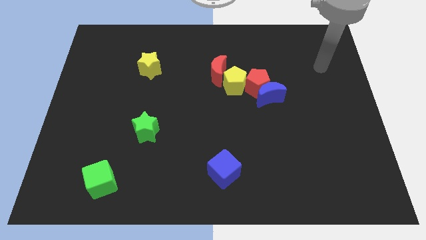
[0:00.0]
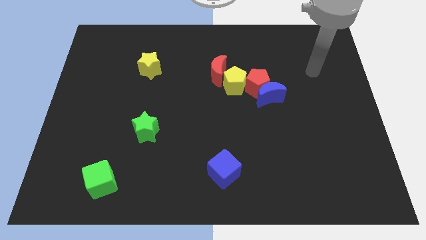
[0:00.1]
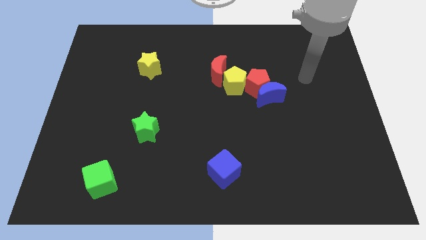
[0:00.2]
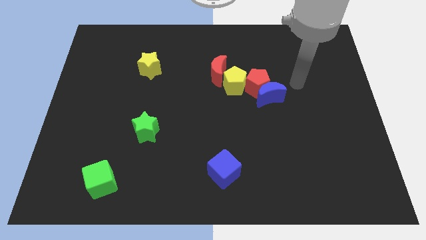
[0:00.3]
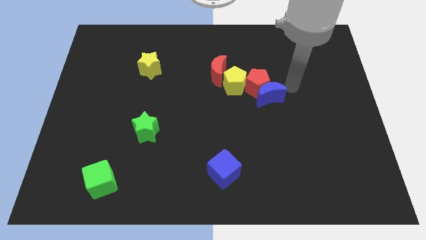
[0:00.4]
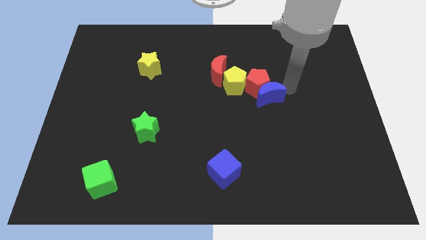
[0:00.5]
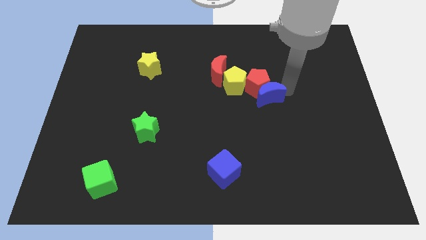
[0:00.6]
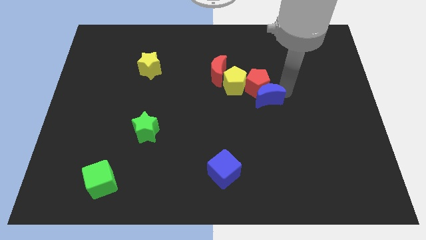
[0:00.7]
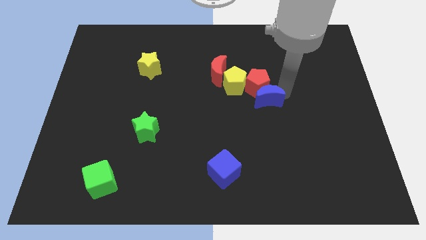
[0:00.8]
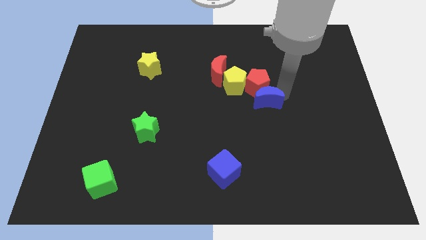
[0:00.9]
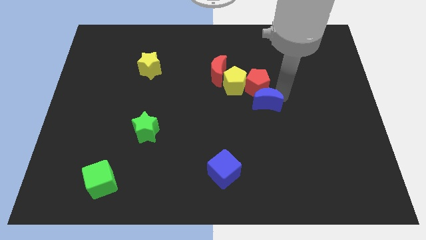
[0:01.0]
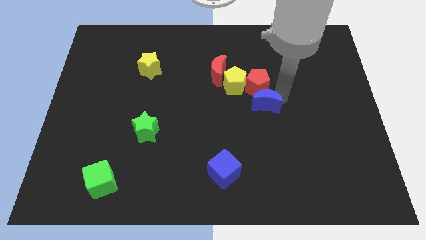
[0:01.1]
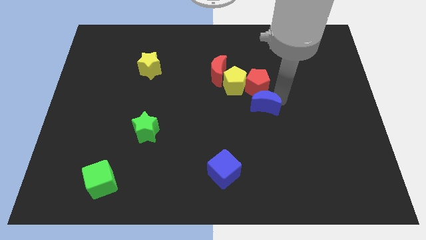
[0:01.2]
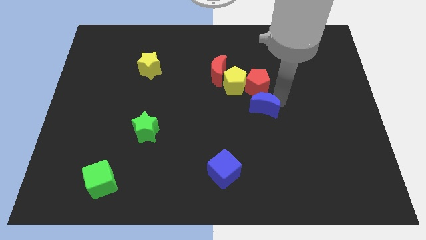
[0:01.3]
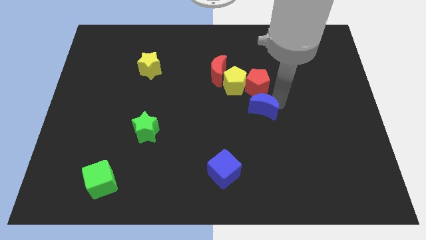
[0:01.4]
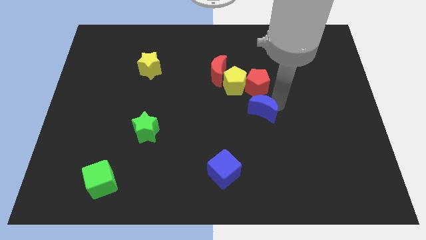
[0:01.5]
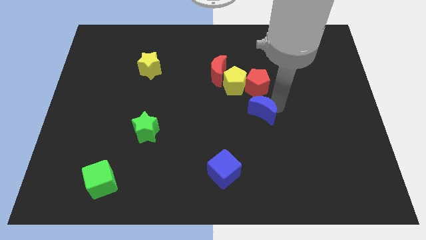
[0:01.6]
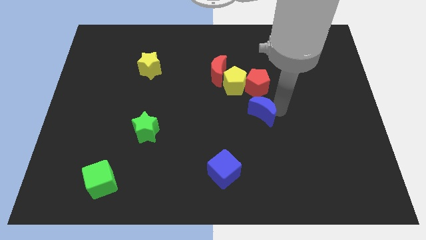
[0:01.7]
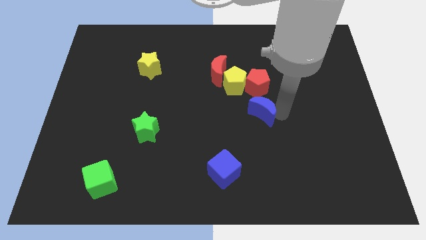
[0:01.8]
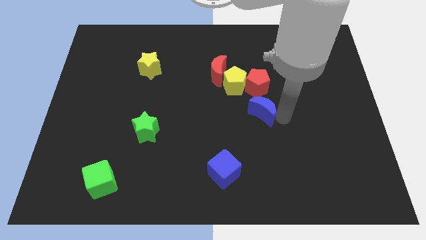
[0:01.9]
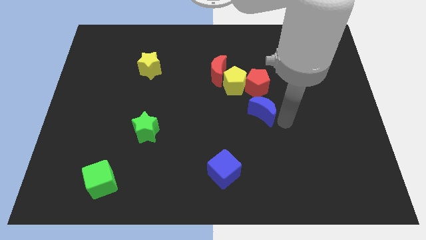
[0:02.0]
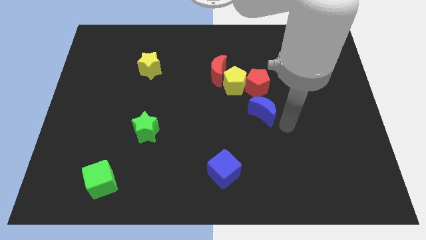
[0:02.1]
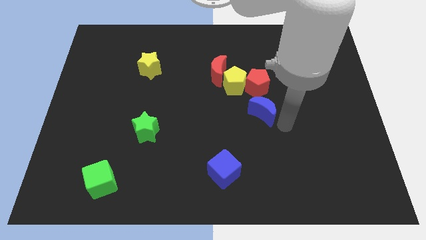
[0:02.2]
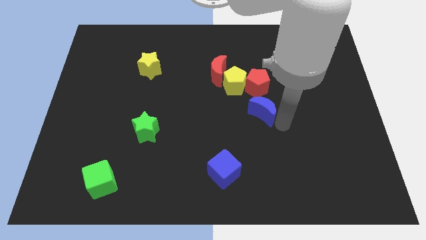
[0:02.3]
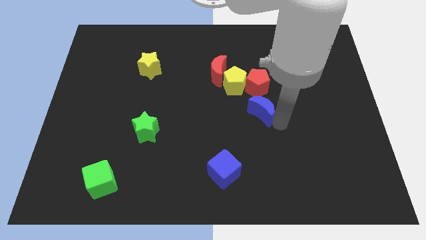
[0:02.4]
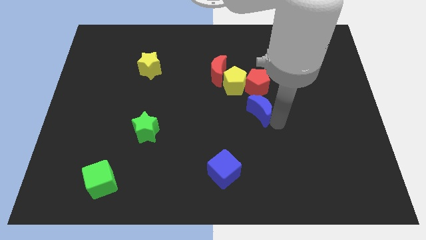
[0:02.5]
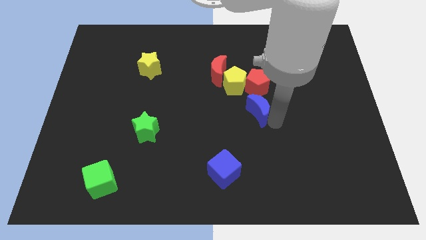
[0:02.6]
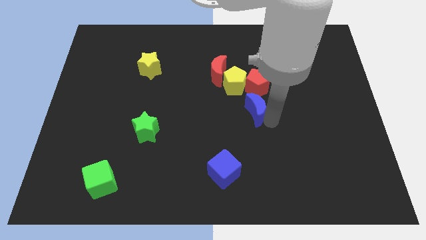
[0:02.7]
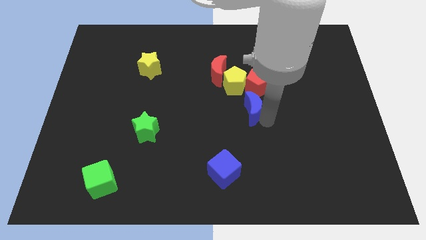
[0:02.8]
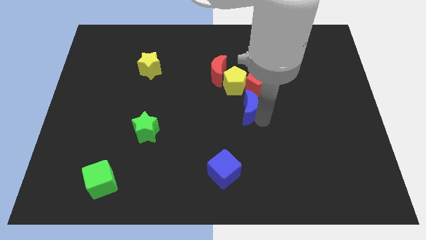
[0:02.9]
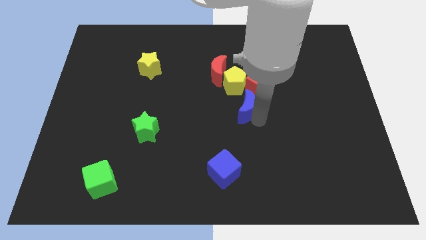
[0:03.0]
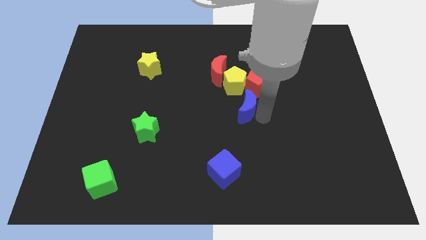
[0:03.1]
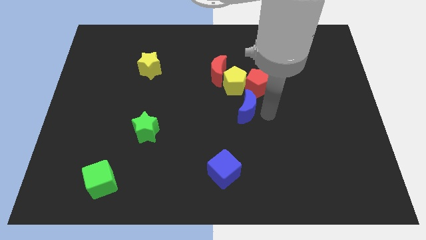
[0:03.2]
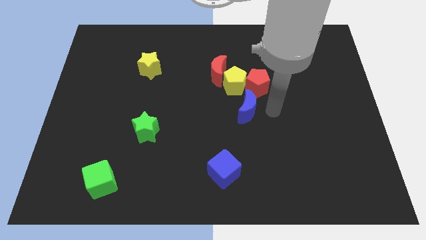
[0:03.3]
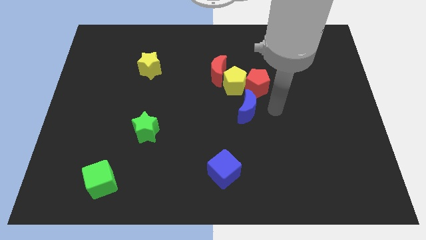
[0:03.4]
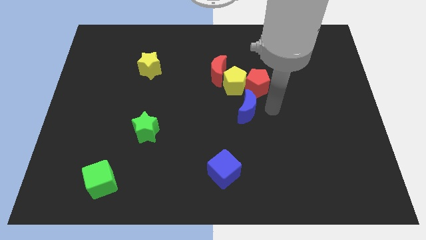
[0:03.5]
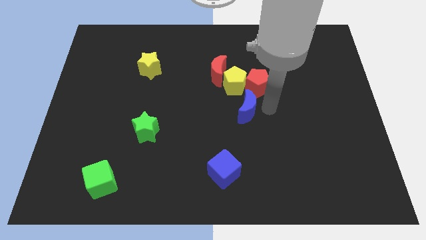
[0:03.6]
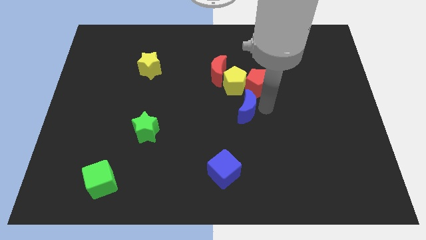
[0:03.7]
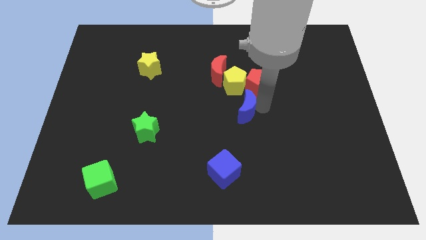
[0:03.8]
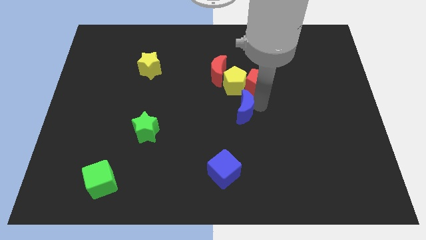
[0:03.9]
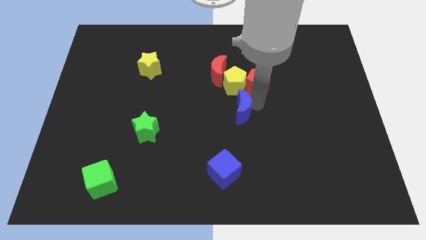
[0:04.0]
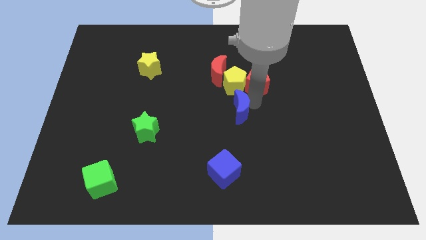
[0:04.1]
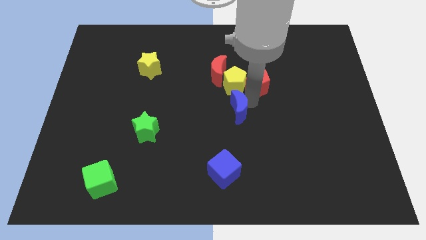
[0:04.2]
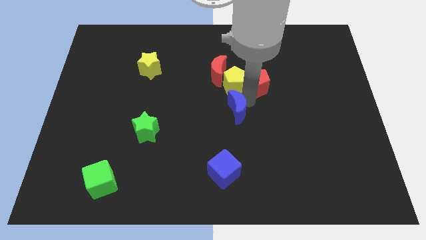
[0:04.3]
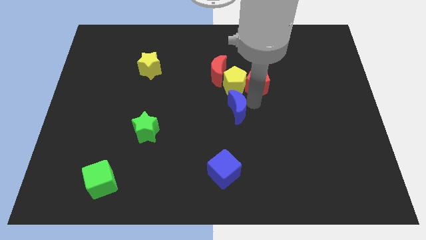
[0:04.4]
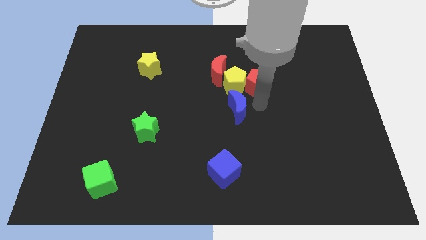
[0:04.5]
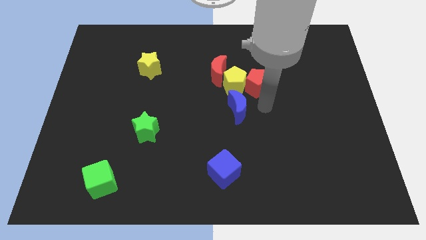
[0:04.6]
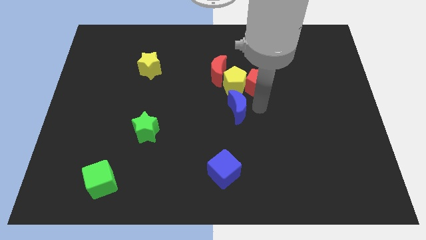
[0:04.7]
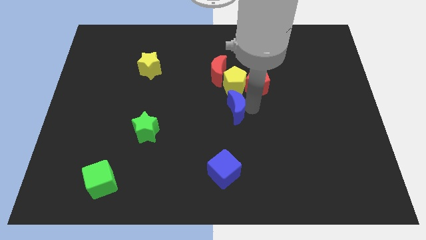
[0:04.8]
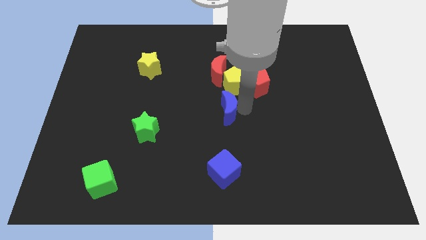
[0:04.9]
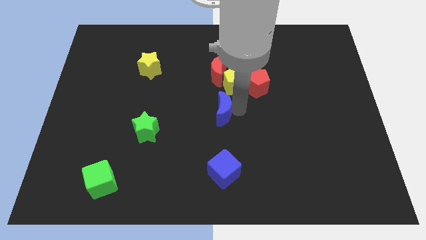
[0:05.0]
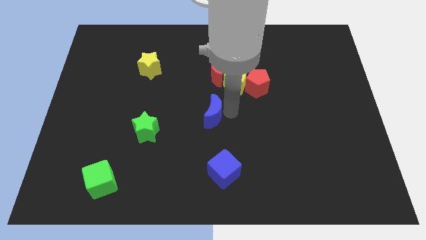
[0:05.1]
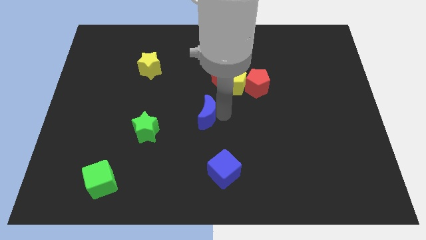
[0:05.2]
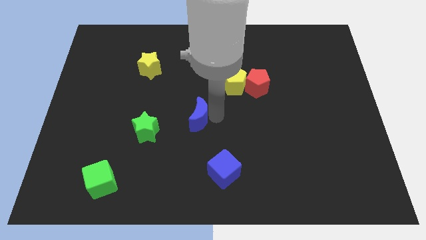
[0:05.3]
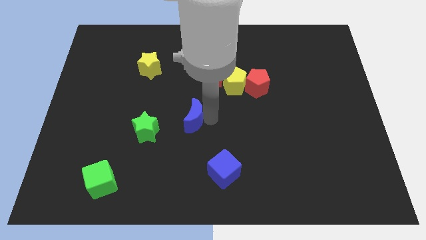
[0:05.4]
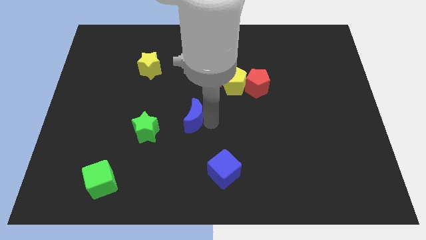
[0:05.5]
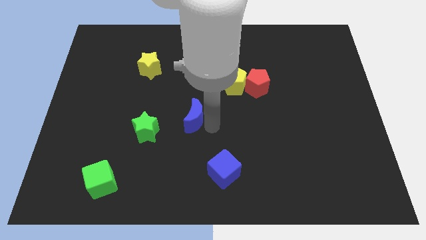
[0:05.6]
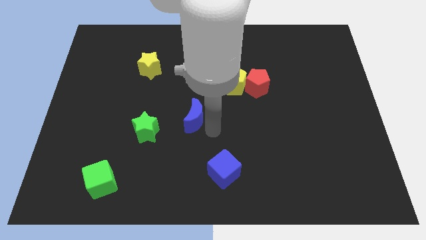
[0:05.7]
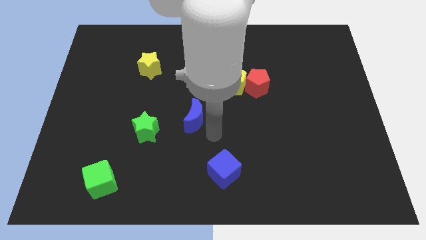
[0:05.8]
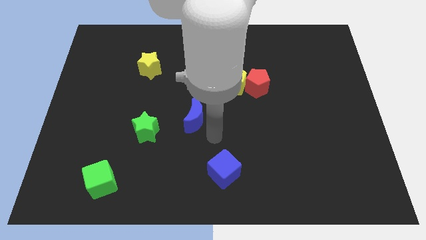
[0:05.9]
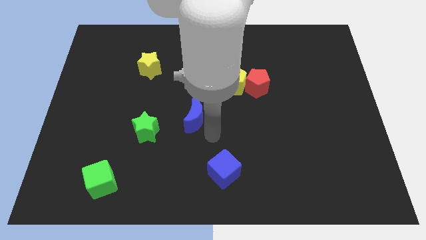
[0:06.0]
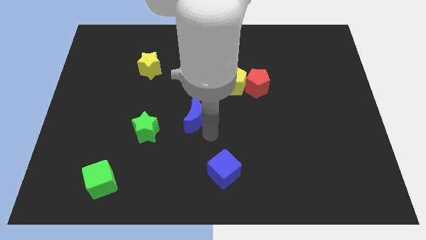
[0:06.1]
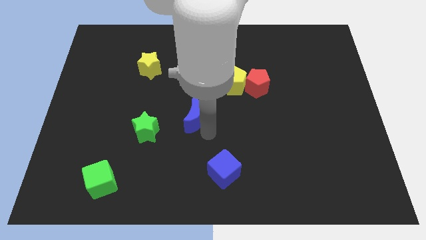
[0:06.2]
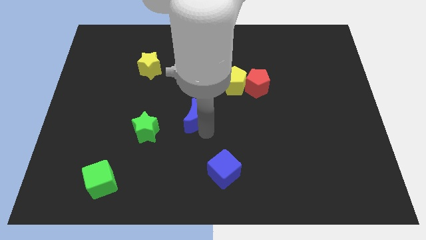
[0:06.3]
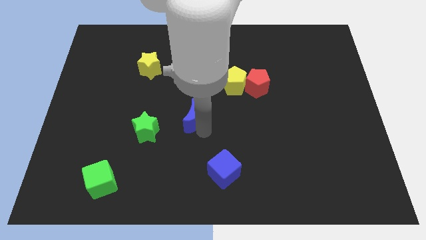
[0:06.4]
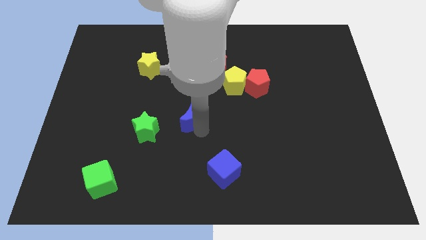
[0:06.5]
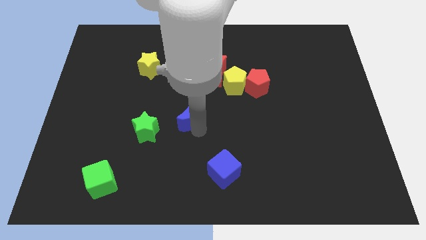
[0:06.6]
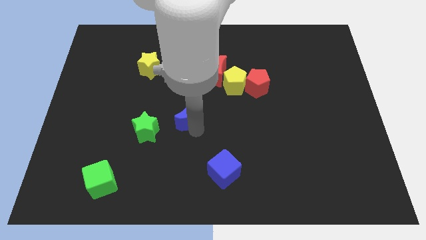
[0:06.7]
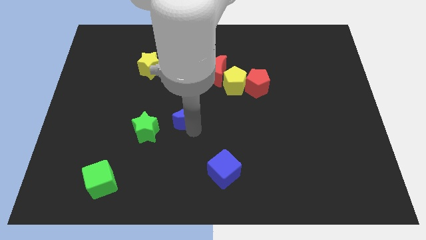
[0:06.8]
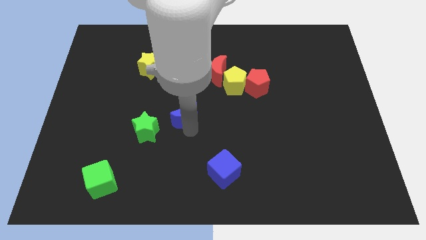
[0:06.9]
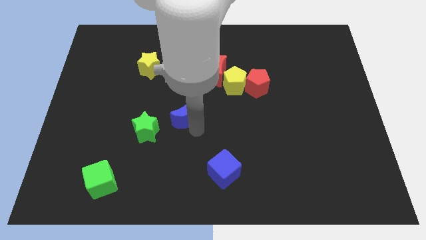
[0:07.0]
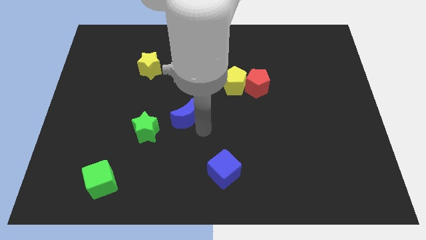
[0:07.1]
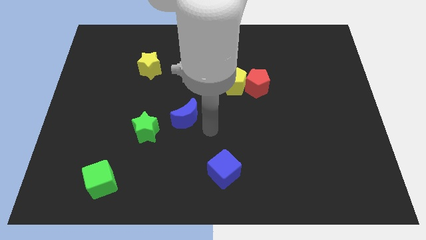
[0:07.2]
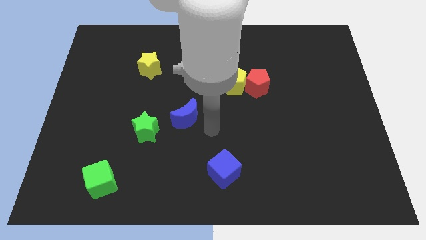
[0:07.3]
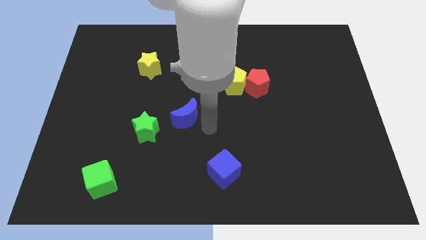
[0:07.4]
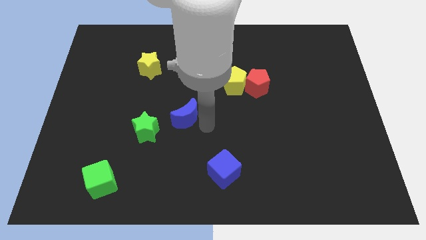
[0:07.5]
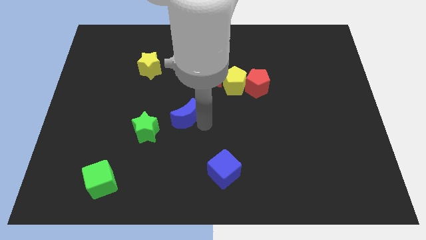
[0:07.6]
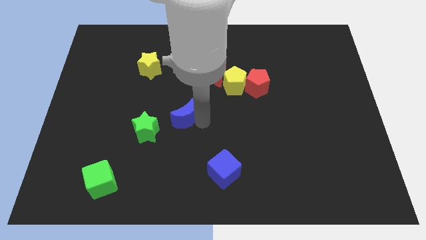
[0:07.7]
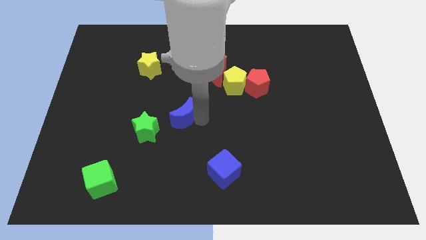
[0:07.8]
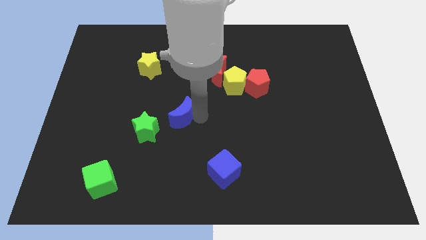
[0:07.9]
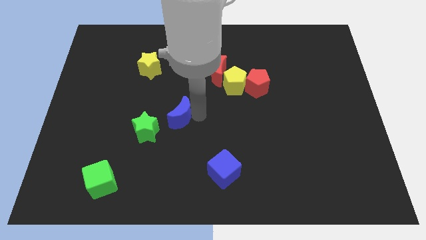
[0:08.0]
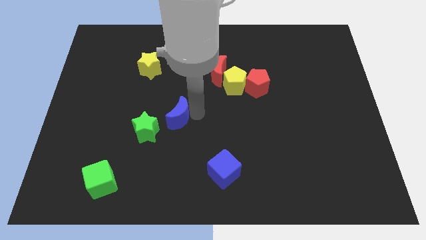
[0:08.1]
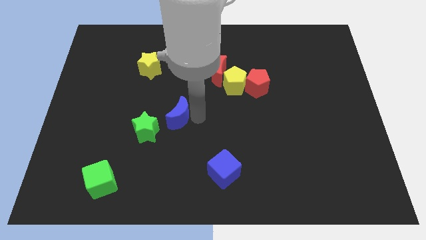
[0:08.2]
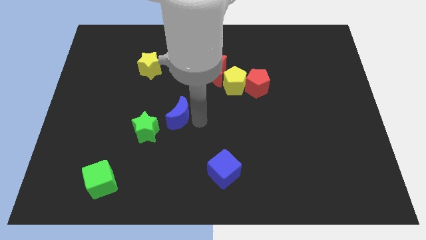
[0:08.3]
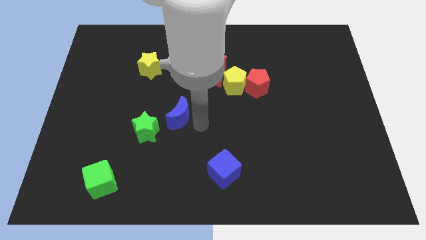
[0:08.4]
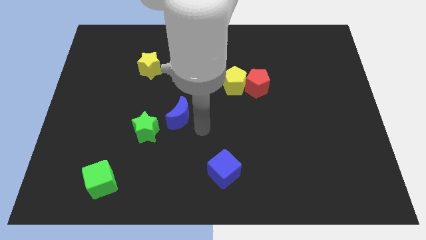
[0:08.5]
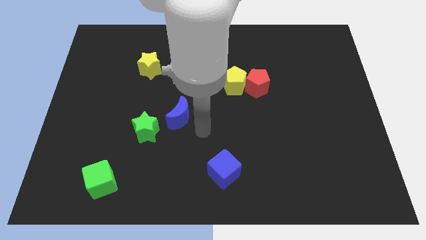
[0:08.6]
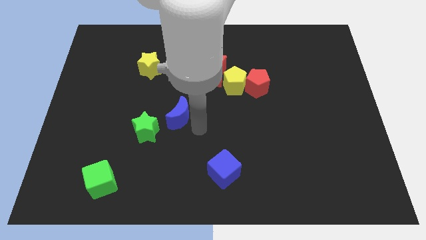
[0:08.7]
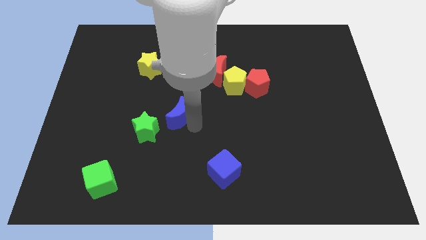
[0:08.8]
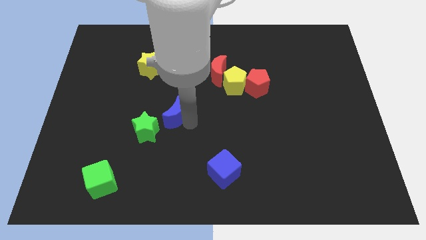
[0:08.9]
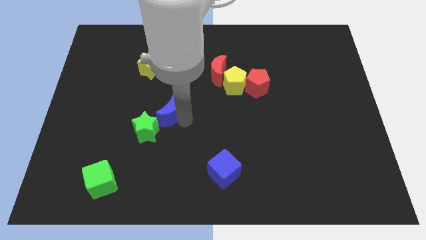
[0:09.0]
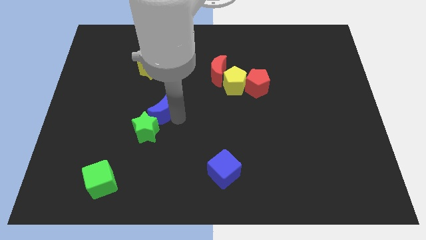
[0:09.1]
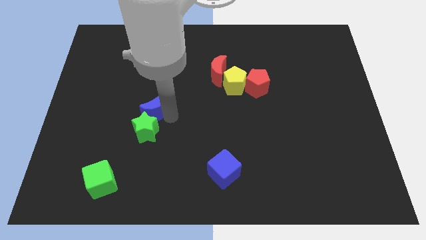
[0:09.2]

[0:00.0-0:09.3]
push the blue moon to the bottom side of the yellow star
